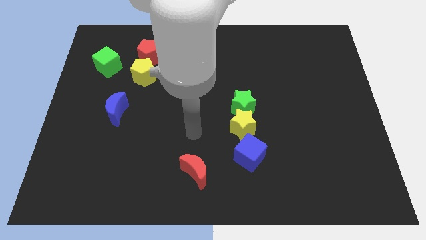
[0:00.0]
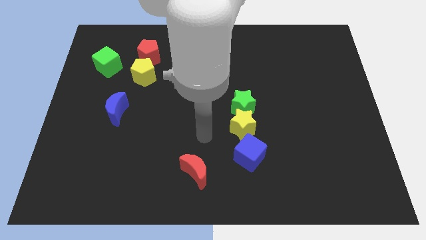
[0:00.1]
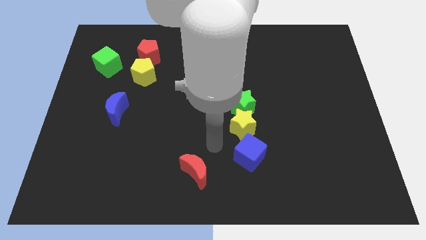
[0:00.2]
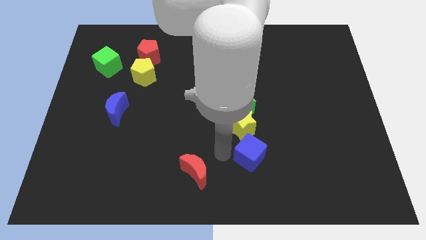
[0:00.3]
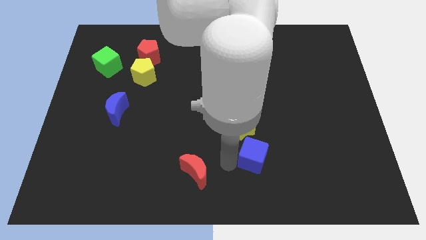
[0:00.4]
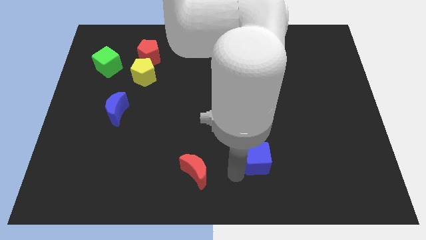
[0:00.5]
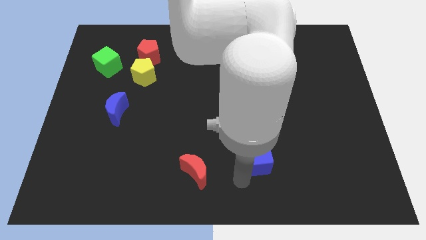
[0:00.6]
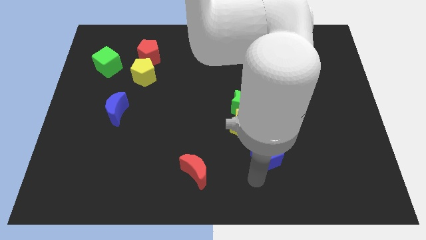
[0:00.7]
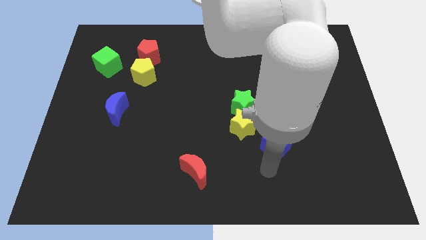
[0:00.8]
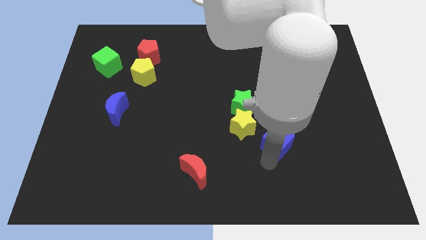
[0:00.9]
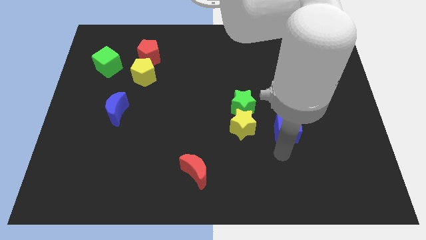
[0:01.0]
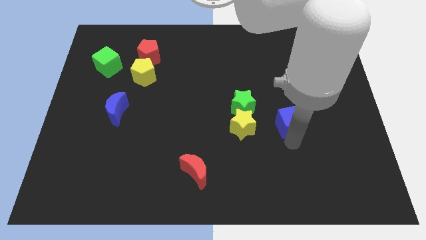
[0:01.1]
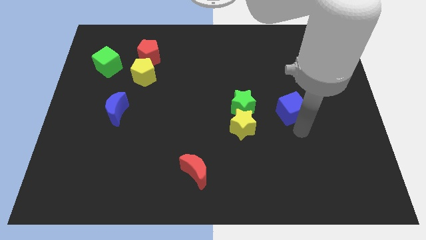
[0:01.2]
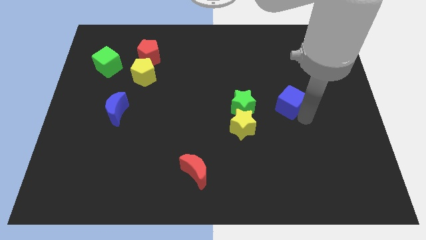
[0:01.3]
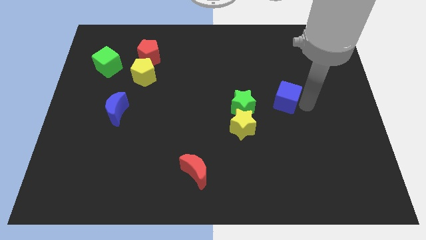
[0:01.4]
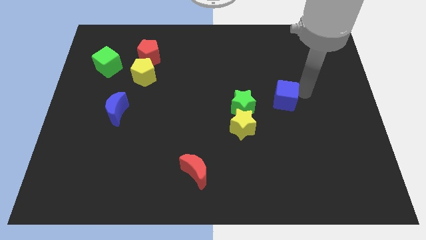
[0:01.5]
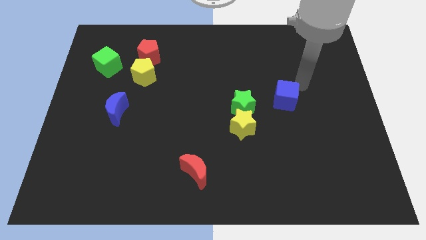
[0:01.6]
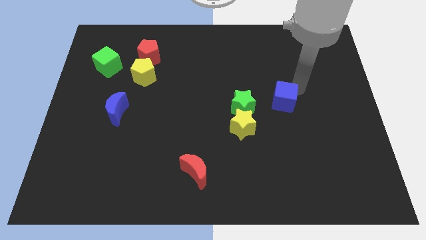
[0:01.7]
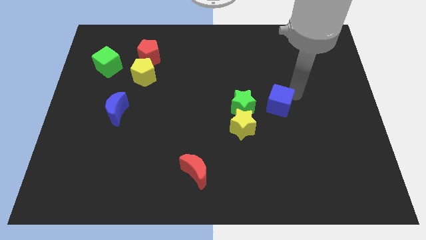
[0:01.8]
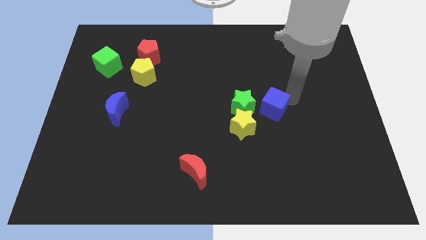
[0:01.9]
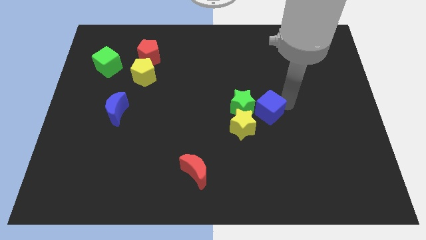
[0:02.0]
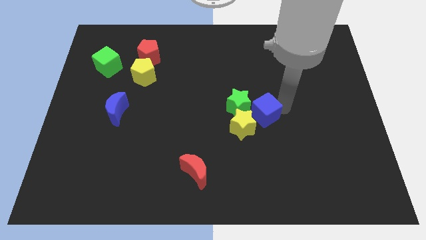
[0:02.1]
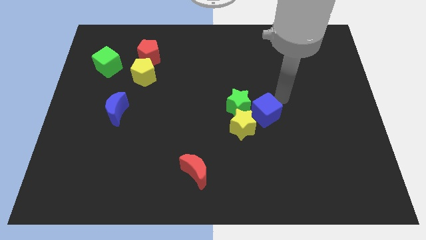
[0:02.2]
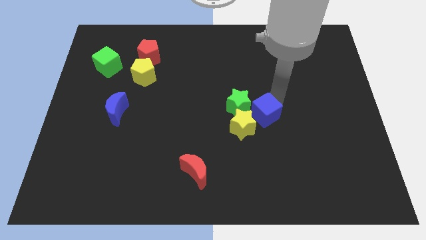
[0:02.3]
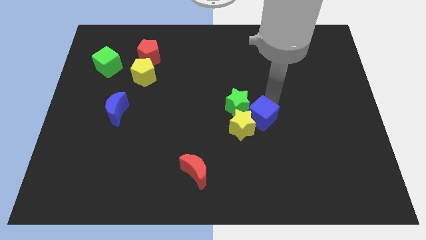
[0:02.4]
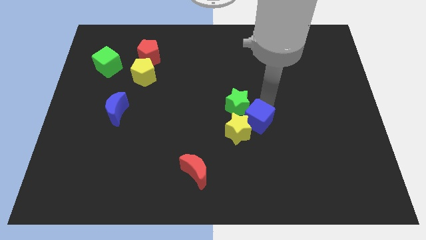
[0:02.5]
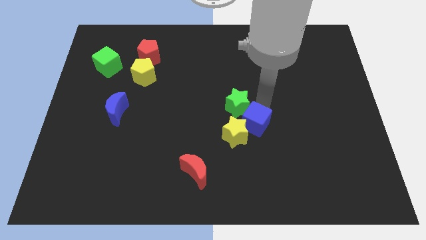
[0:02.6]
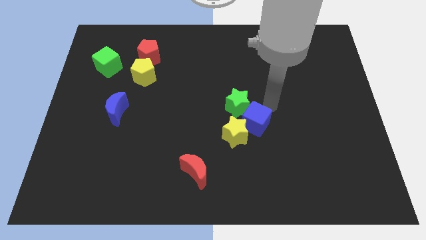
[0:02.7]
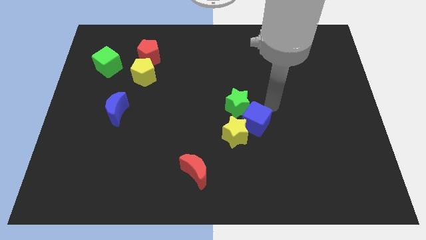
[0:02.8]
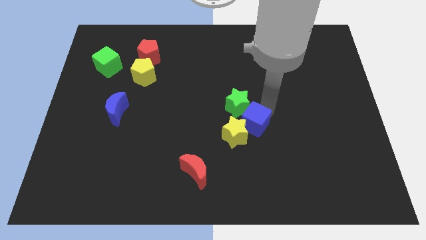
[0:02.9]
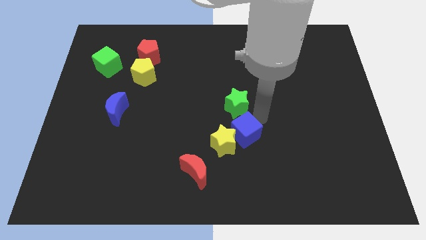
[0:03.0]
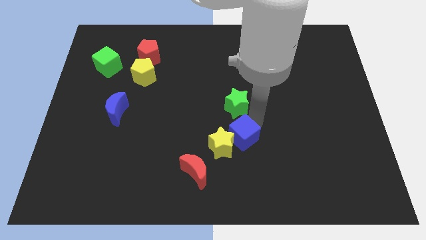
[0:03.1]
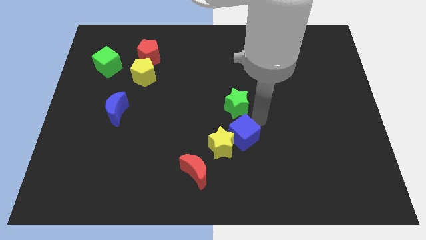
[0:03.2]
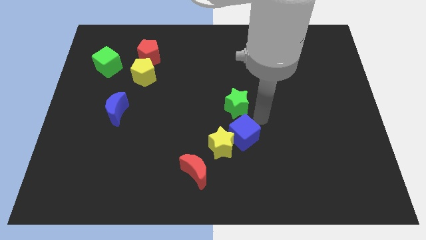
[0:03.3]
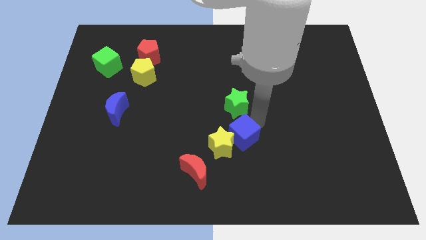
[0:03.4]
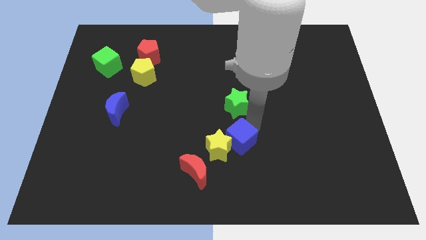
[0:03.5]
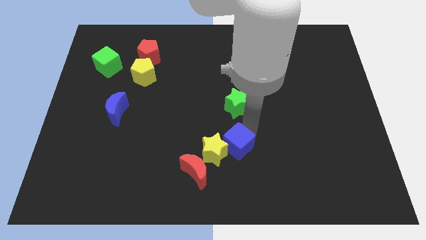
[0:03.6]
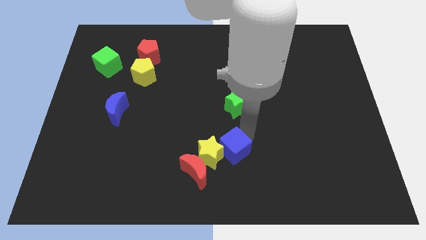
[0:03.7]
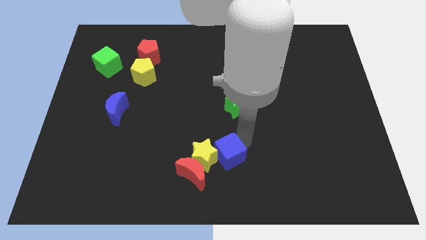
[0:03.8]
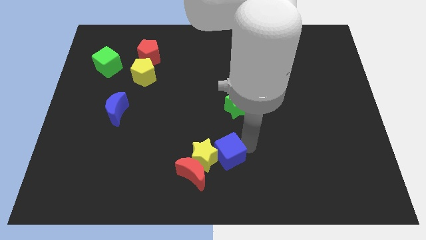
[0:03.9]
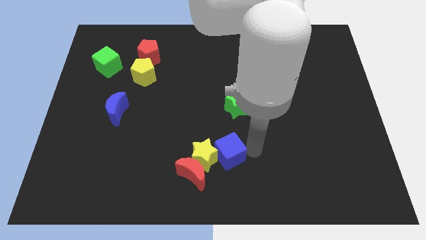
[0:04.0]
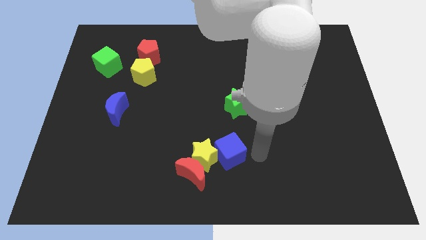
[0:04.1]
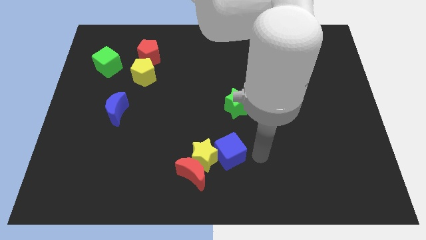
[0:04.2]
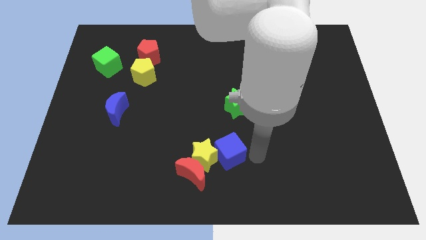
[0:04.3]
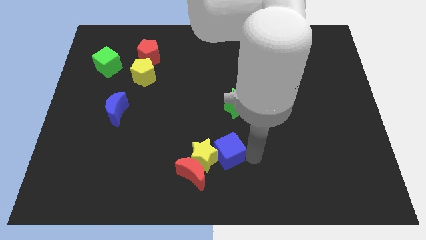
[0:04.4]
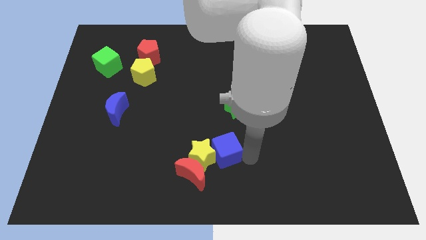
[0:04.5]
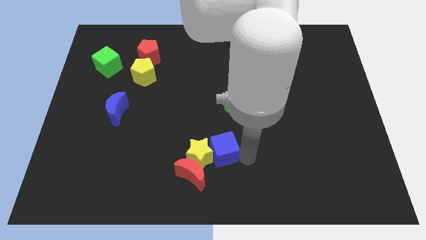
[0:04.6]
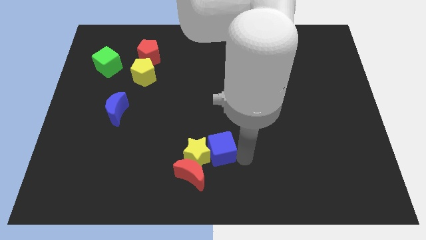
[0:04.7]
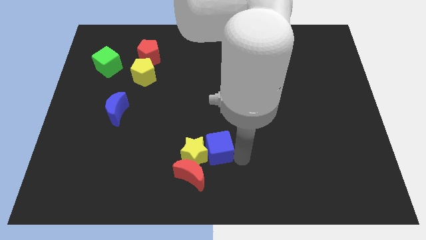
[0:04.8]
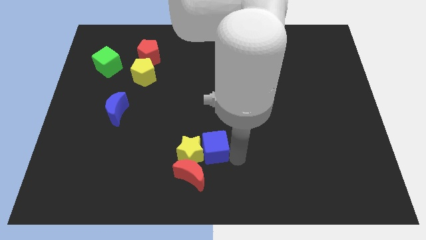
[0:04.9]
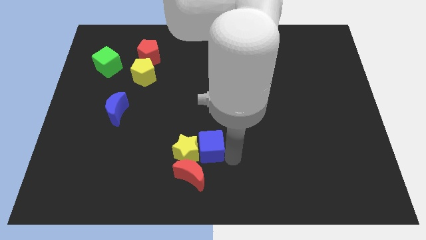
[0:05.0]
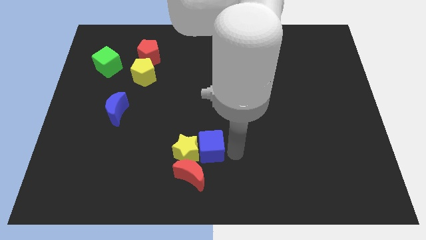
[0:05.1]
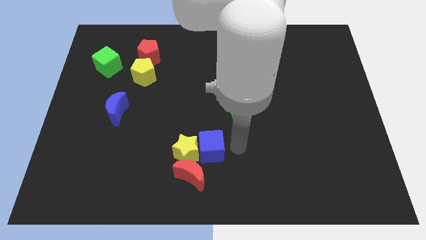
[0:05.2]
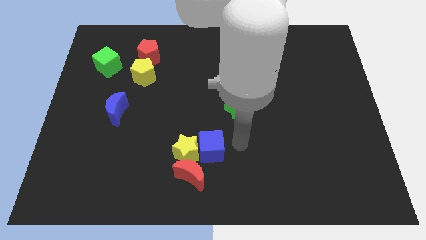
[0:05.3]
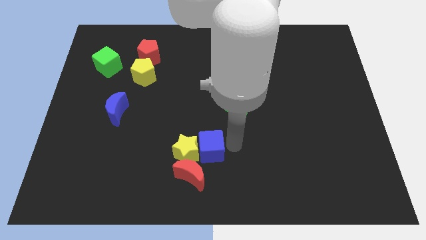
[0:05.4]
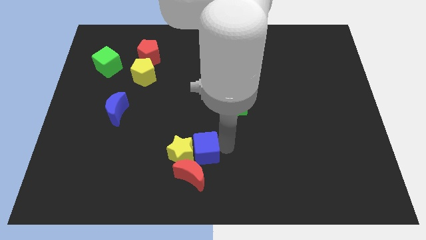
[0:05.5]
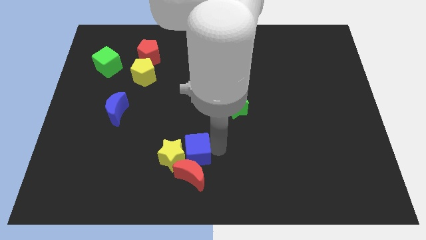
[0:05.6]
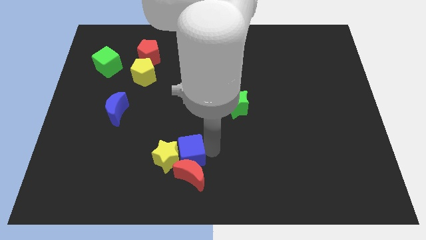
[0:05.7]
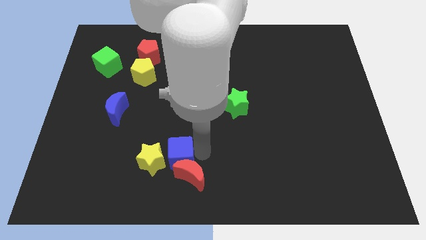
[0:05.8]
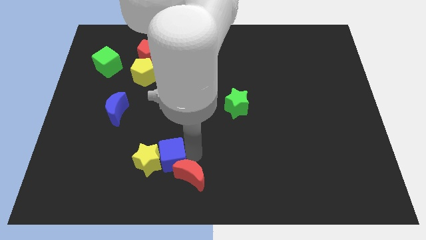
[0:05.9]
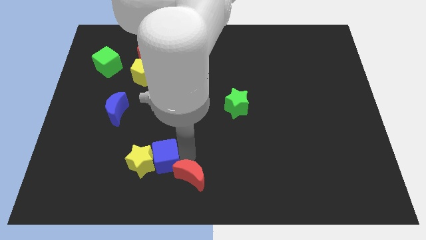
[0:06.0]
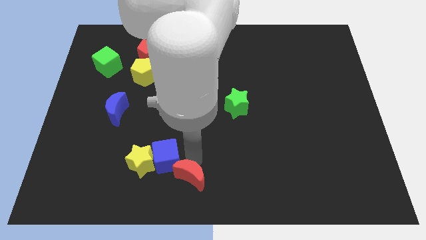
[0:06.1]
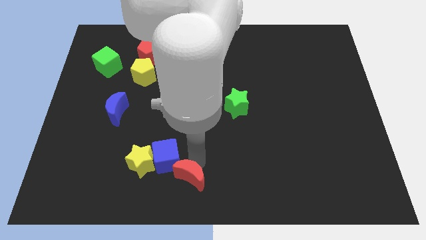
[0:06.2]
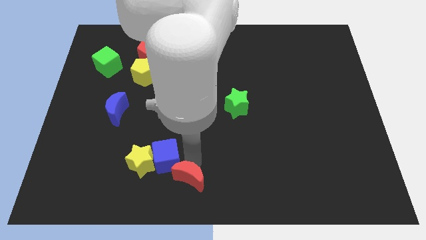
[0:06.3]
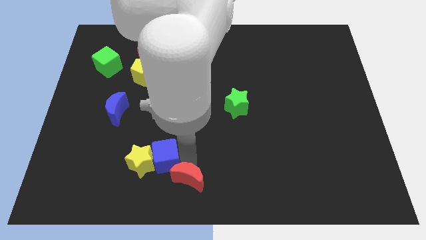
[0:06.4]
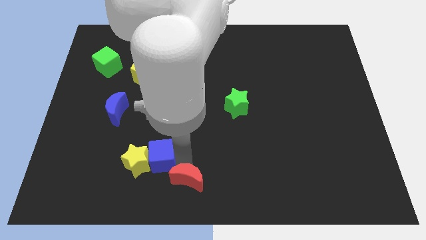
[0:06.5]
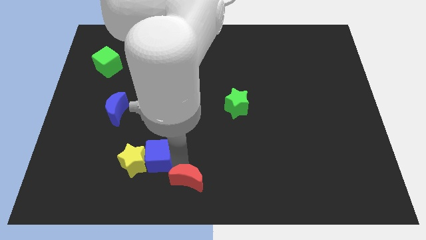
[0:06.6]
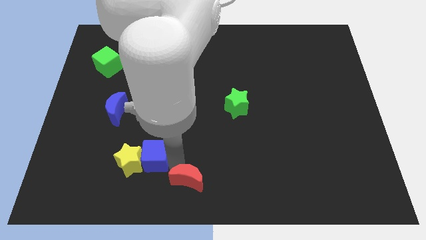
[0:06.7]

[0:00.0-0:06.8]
slide the blue cube to the left

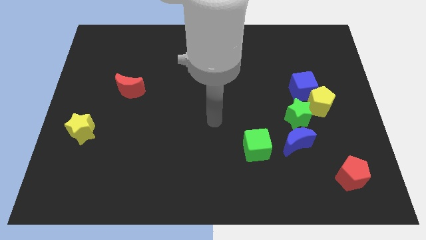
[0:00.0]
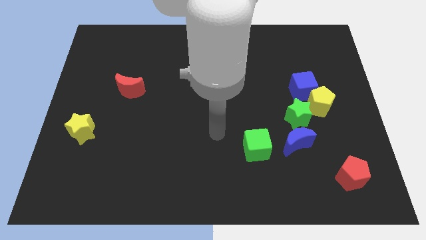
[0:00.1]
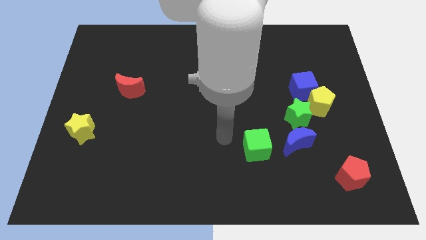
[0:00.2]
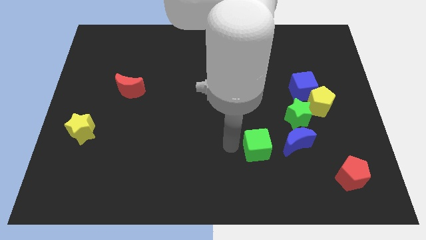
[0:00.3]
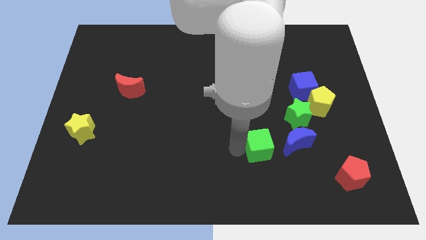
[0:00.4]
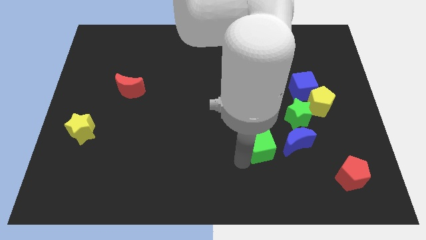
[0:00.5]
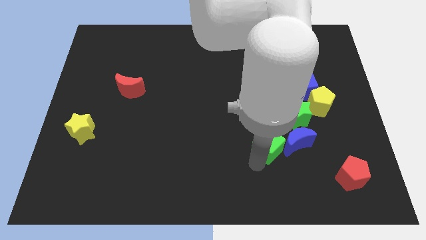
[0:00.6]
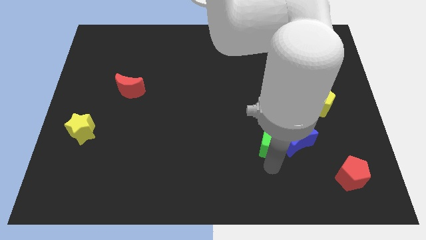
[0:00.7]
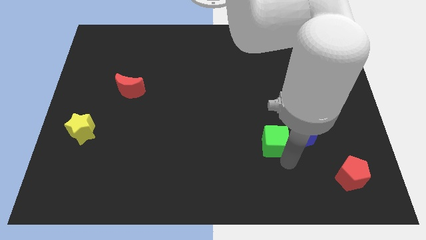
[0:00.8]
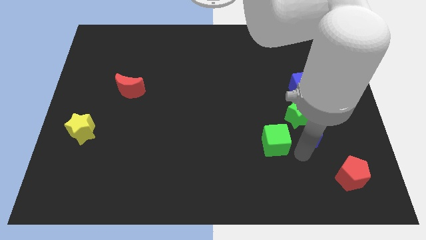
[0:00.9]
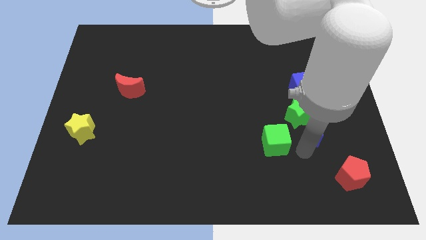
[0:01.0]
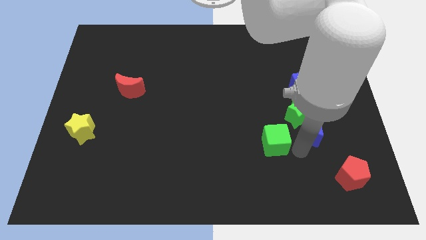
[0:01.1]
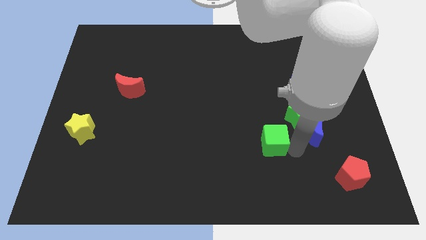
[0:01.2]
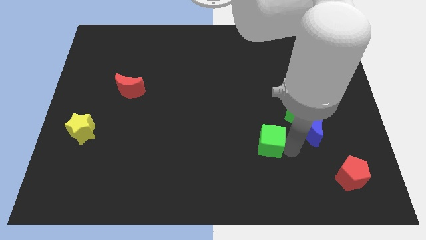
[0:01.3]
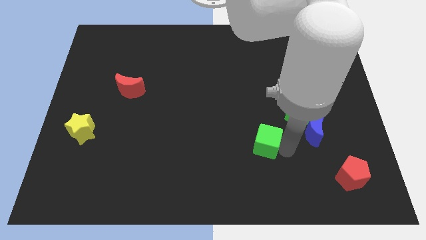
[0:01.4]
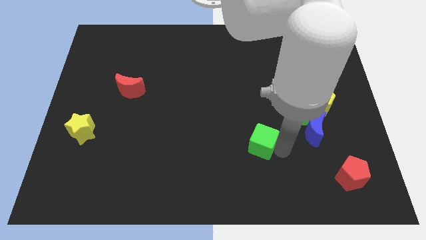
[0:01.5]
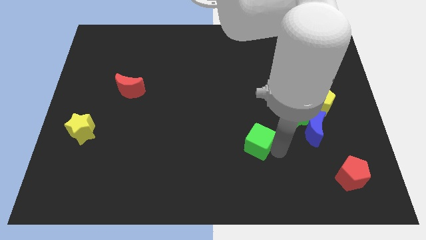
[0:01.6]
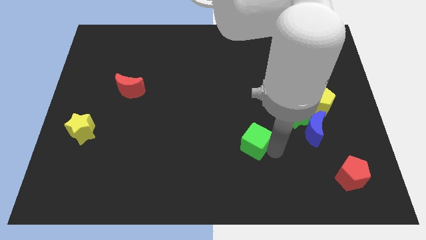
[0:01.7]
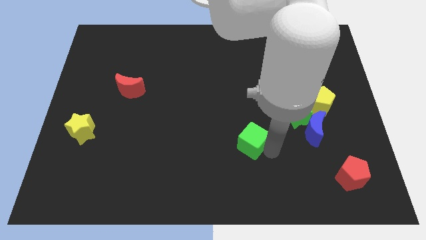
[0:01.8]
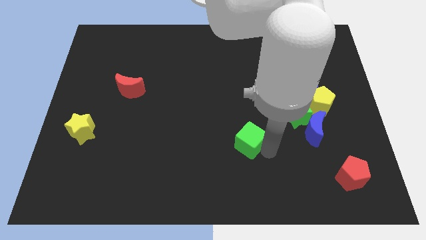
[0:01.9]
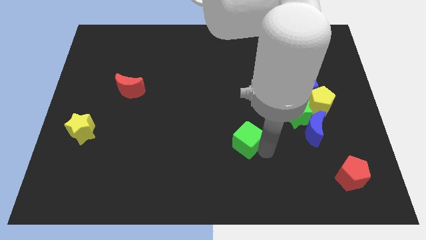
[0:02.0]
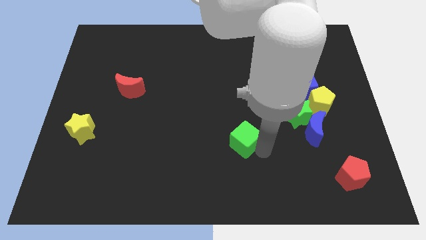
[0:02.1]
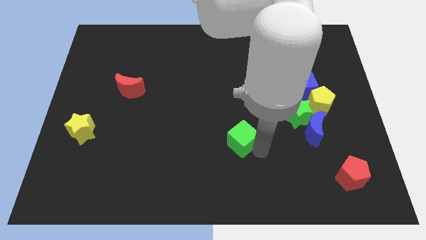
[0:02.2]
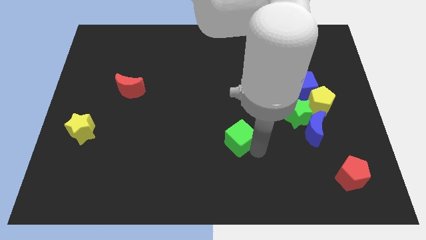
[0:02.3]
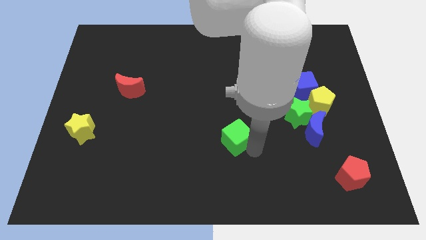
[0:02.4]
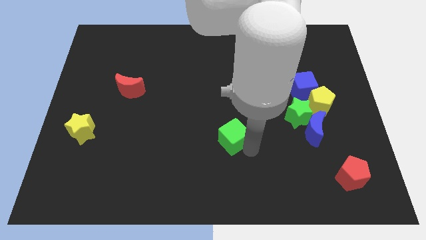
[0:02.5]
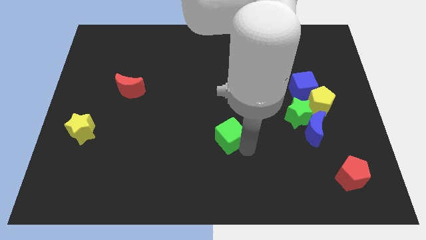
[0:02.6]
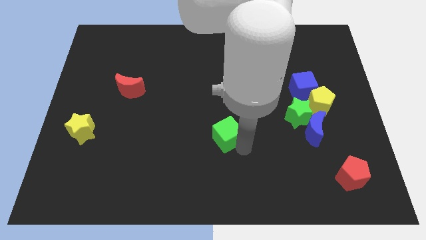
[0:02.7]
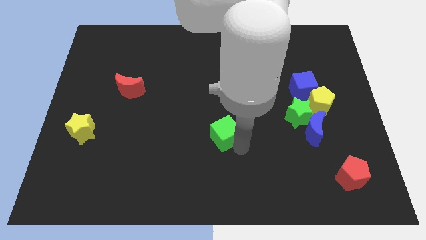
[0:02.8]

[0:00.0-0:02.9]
slightly push the green cube up and left diagonally
